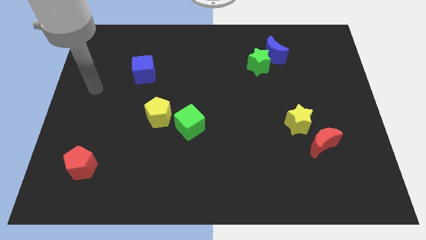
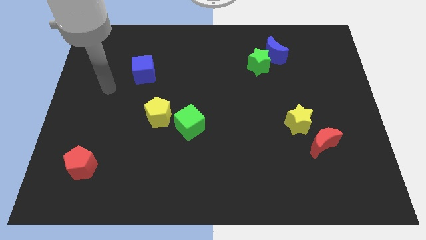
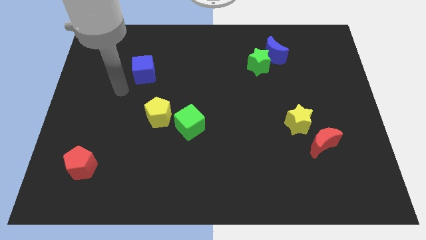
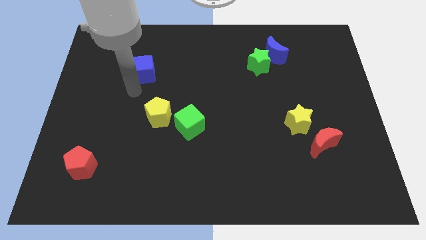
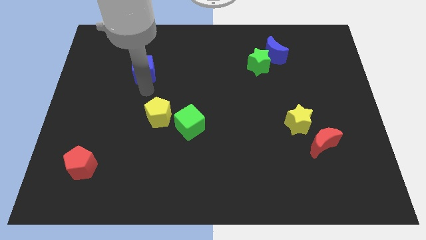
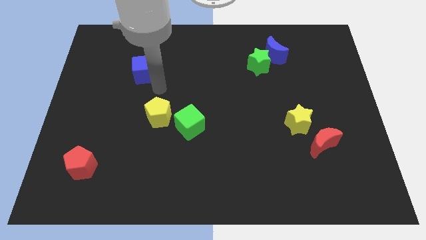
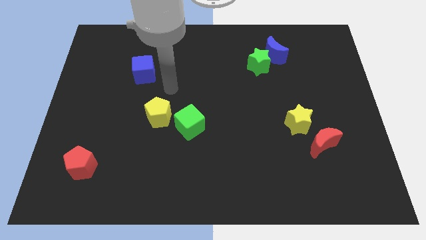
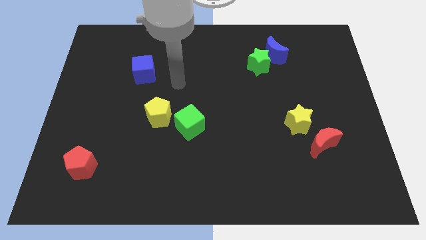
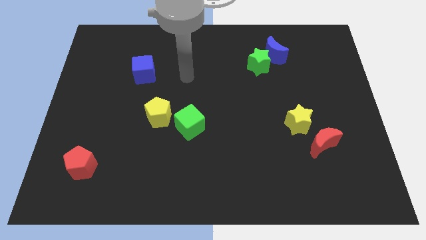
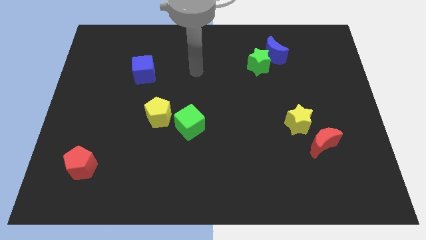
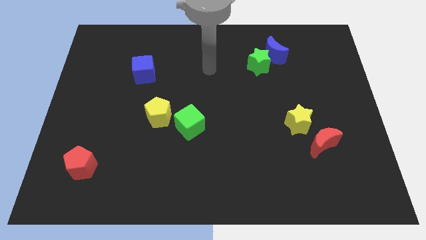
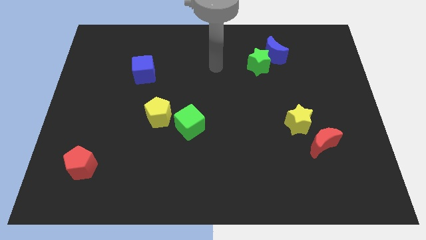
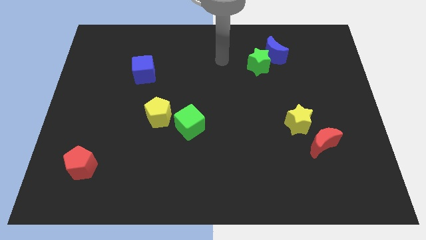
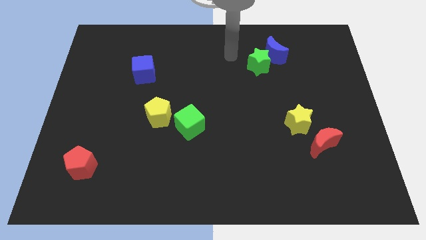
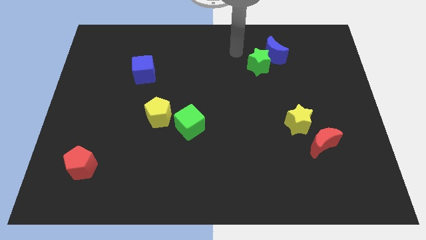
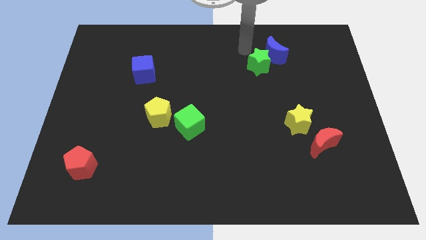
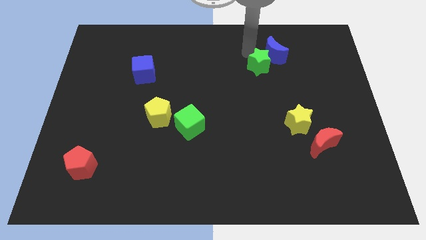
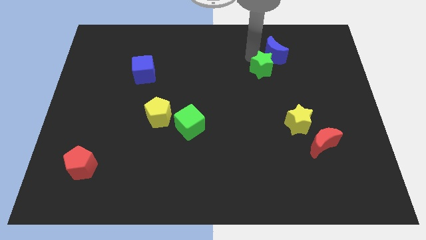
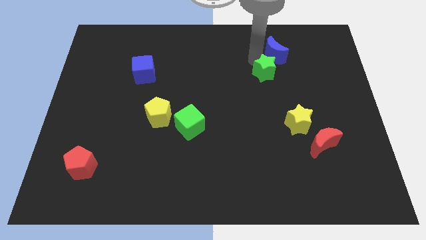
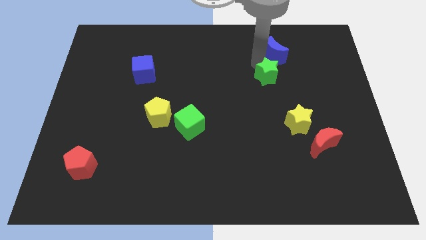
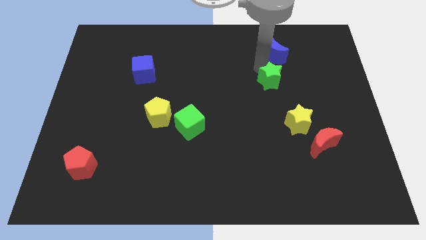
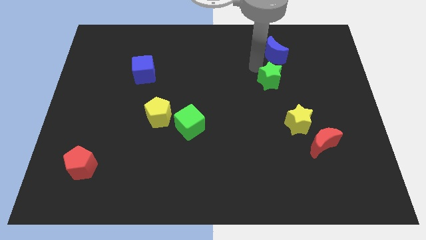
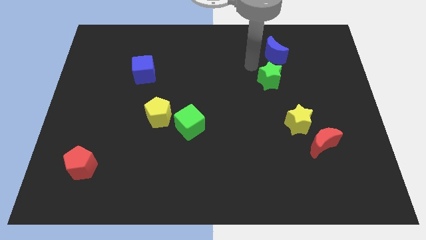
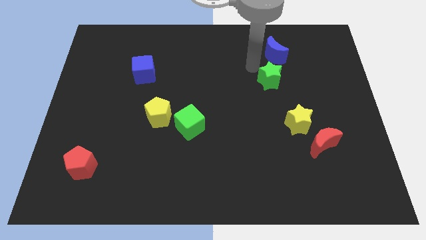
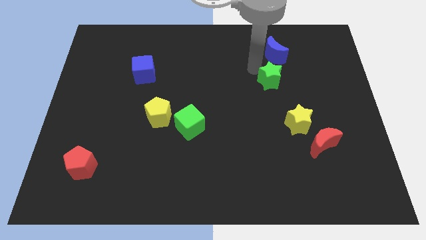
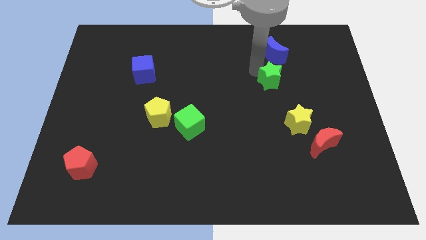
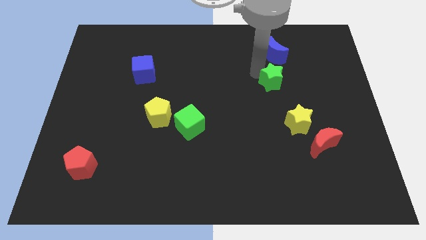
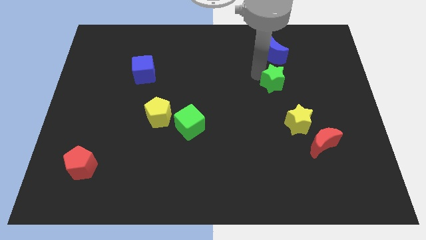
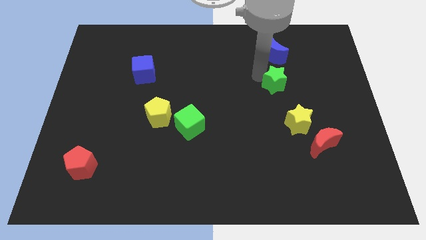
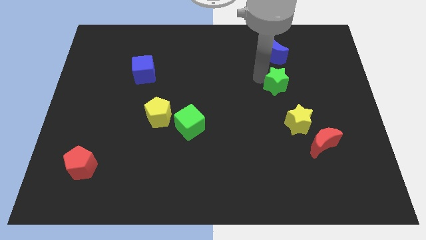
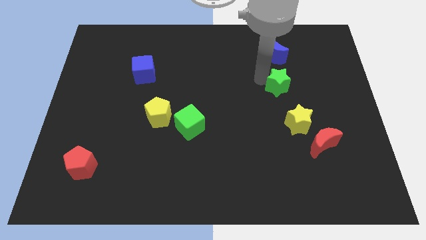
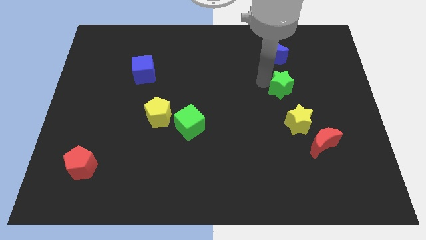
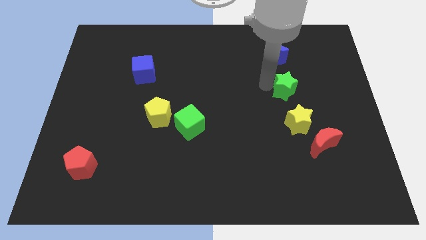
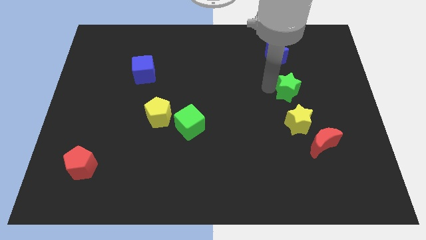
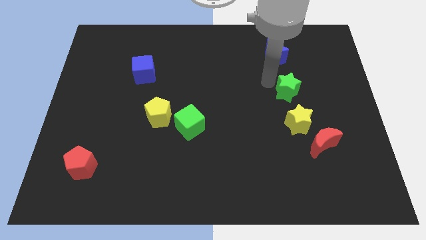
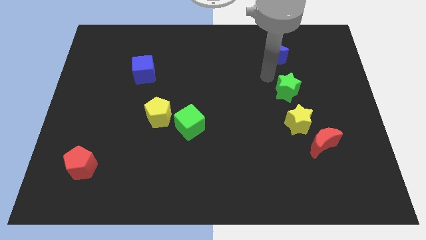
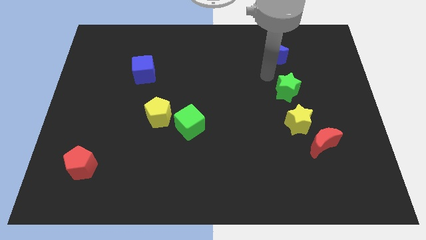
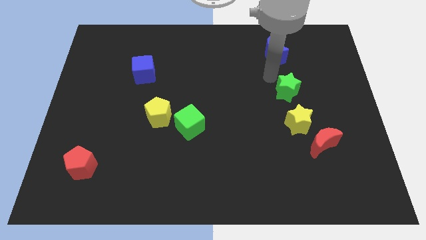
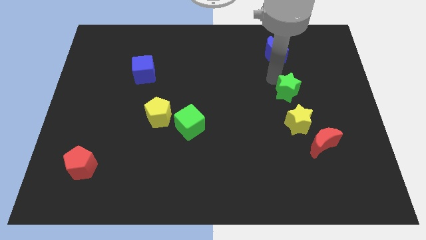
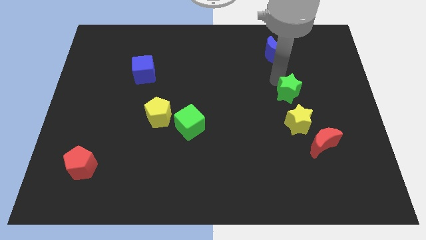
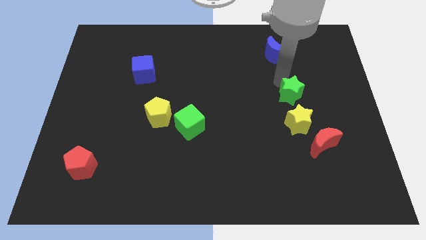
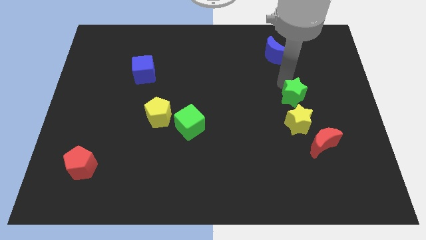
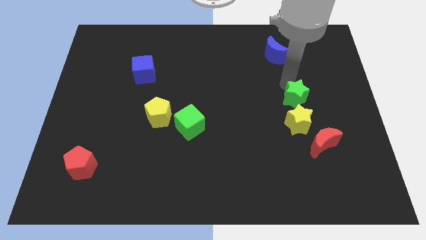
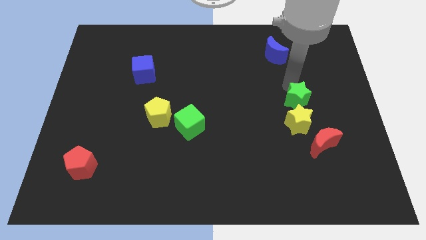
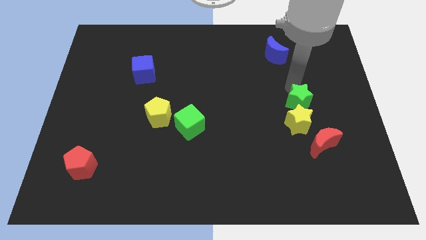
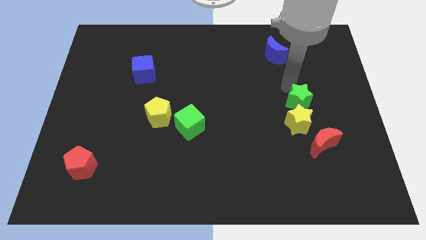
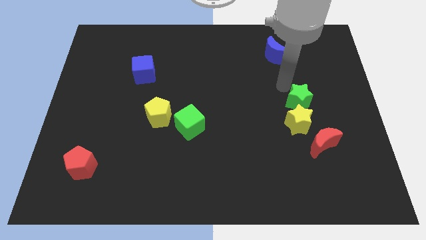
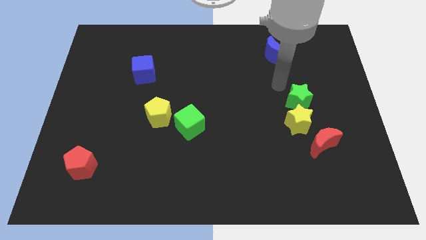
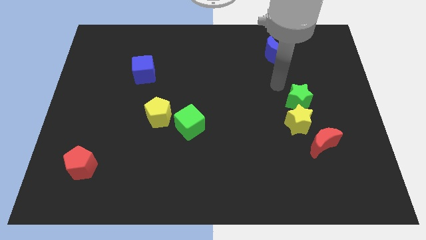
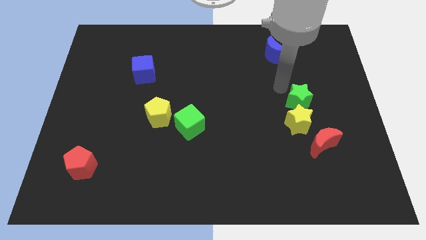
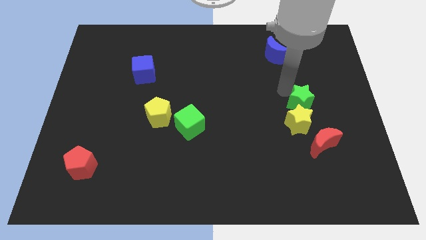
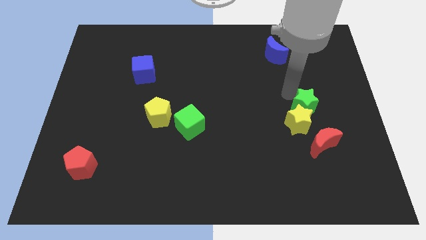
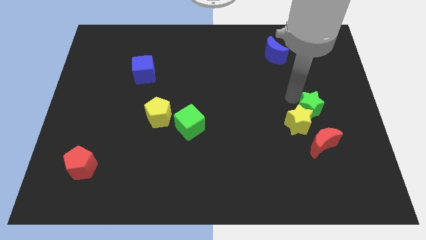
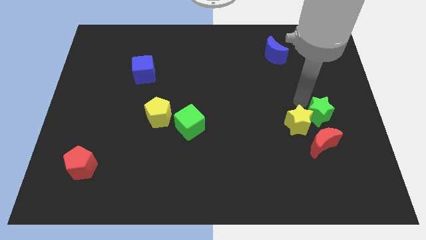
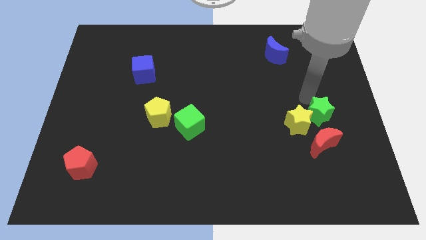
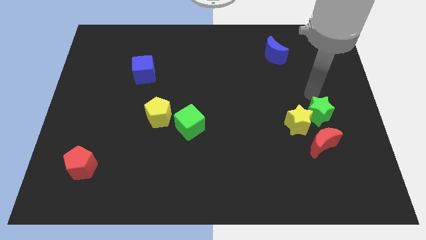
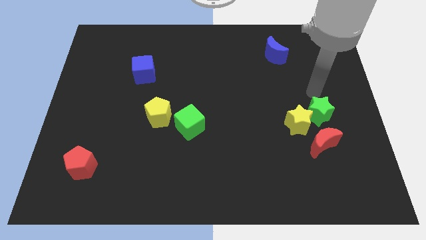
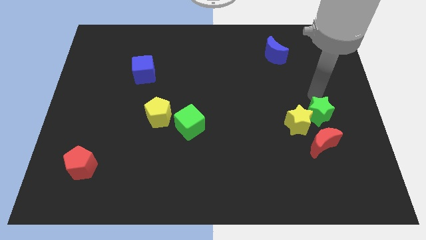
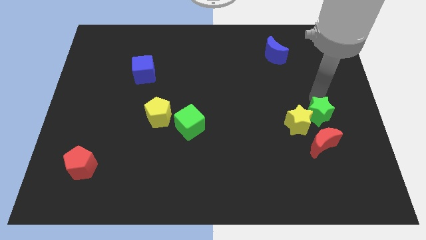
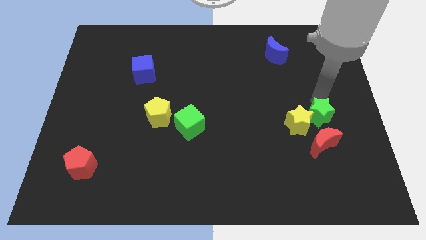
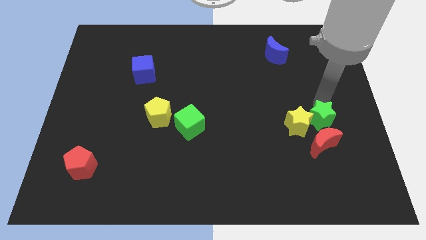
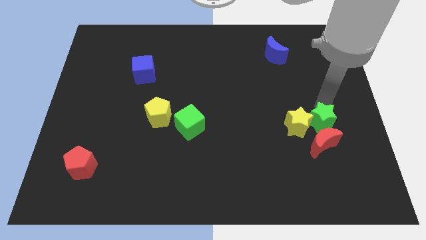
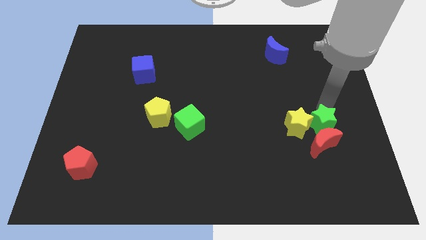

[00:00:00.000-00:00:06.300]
move the green star next to the red moon
